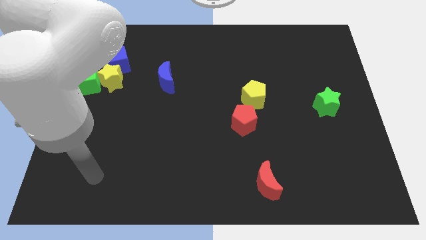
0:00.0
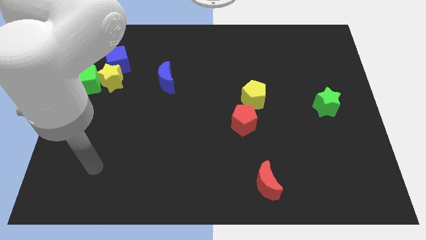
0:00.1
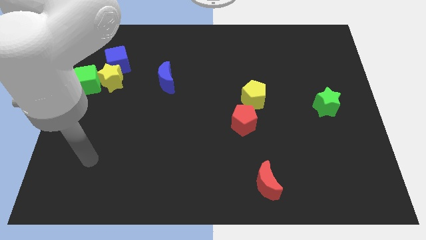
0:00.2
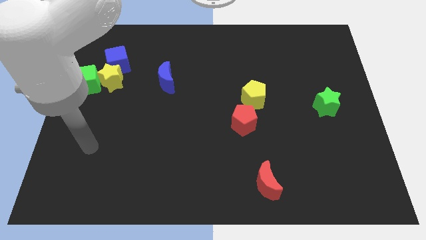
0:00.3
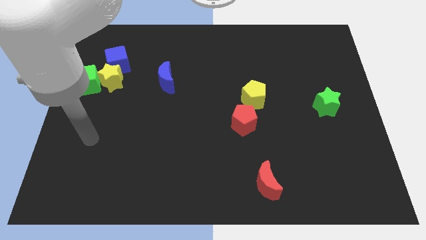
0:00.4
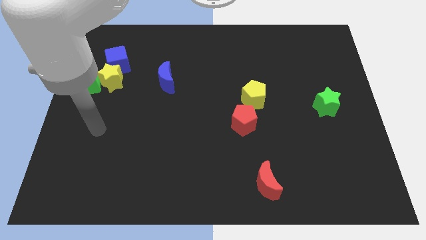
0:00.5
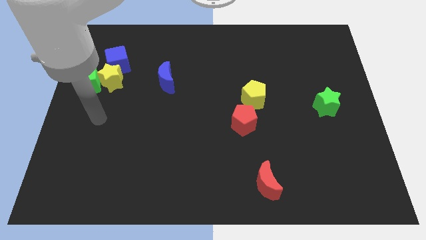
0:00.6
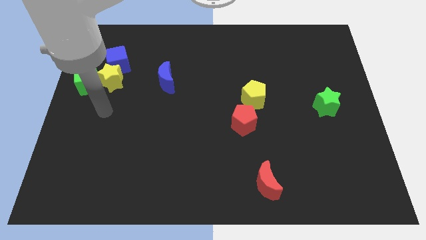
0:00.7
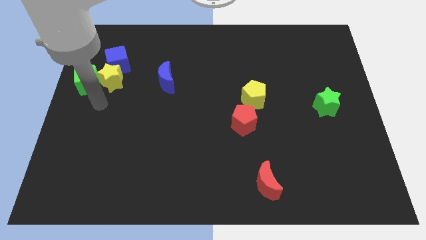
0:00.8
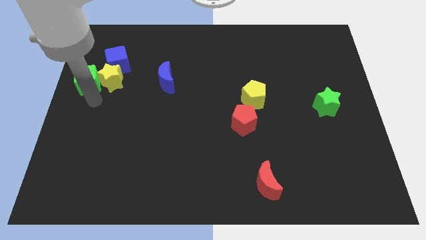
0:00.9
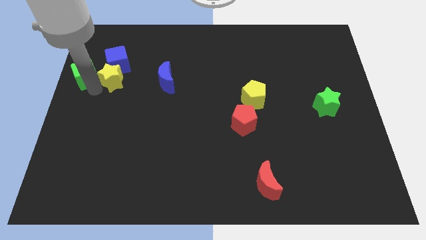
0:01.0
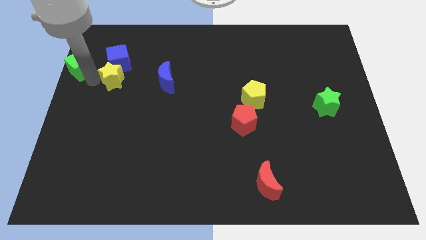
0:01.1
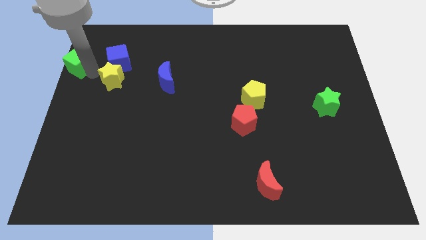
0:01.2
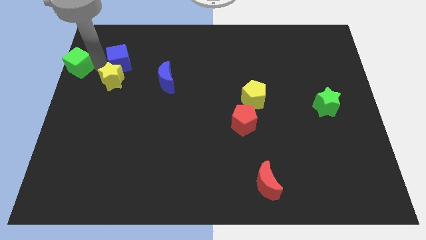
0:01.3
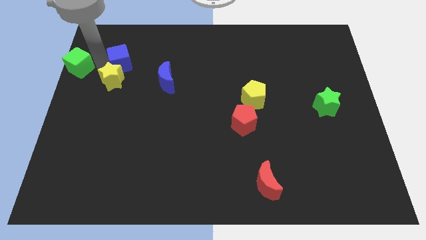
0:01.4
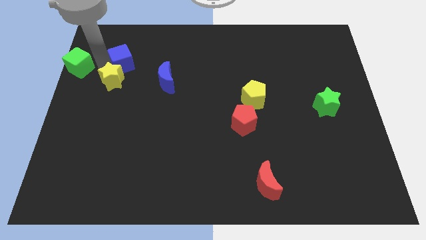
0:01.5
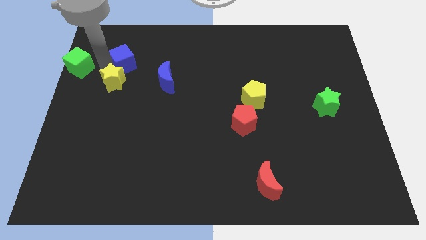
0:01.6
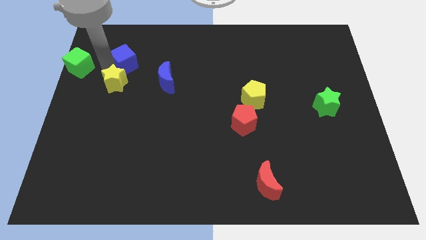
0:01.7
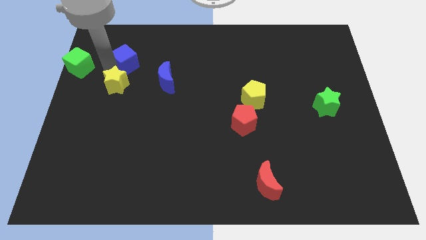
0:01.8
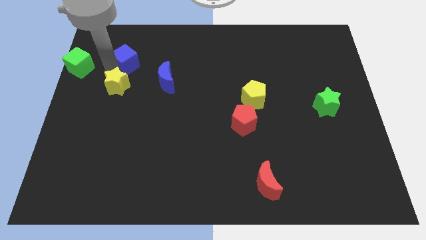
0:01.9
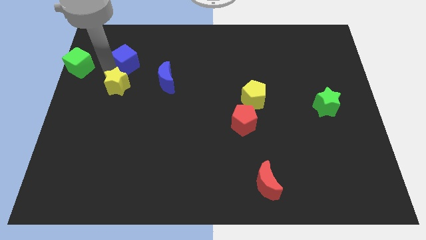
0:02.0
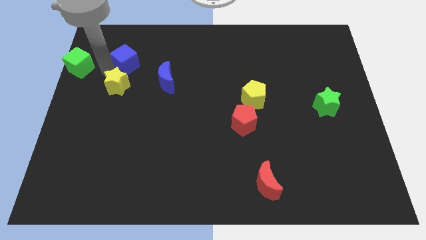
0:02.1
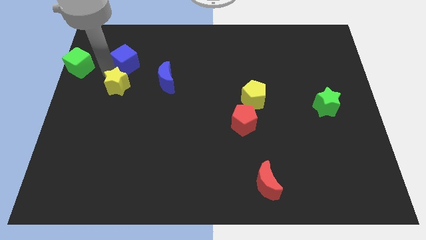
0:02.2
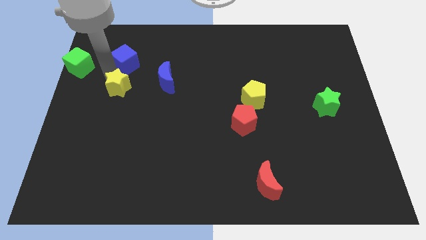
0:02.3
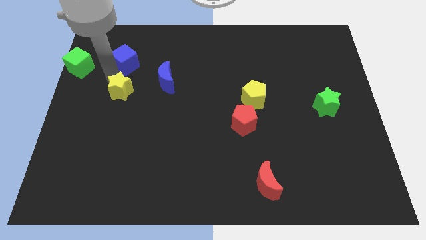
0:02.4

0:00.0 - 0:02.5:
pull the yellow star apart from the green cube and blue cube

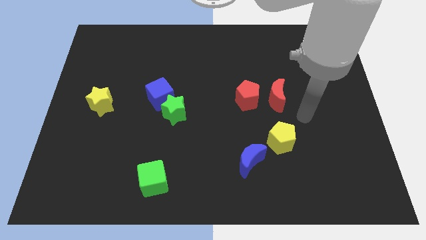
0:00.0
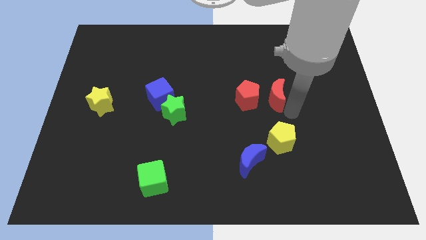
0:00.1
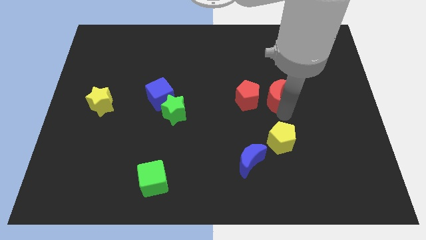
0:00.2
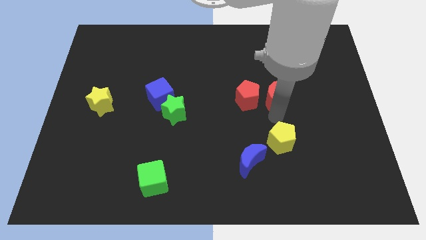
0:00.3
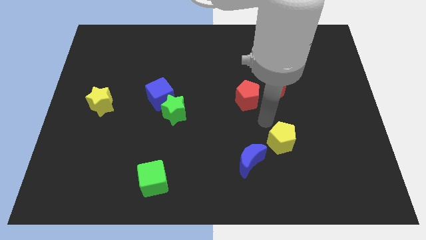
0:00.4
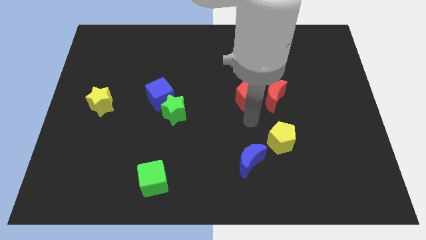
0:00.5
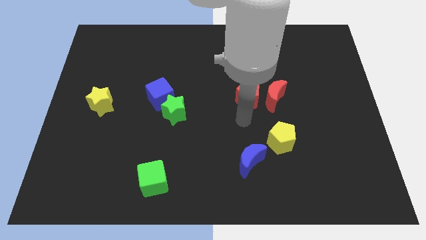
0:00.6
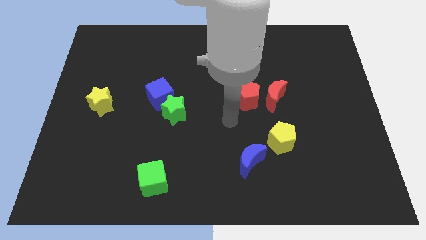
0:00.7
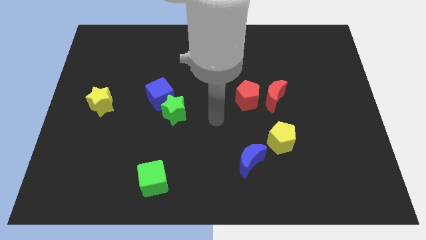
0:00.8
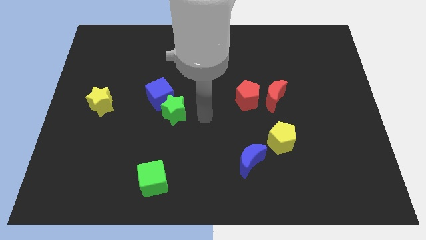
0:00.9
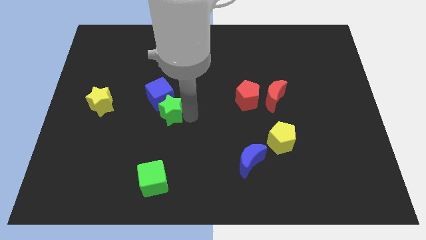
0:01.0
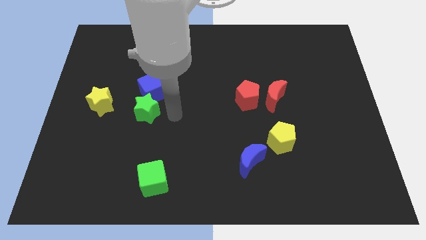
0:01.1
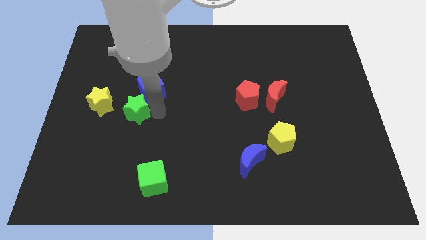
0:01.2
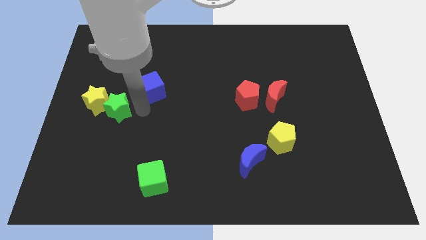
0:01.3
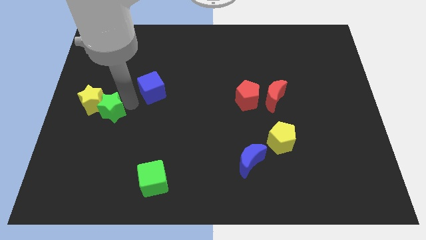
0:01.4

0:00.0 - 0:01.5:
pull the blue cube apart from the green star

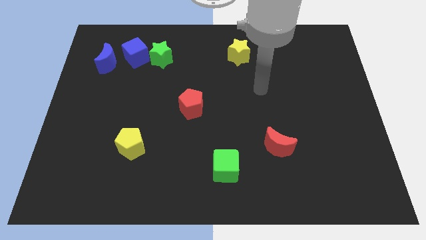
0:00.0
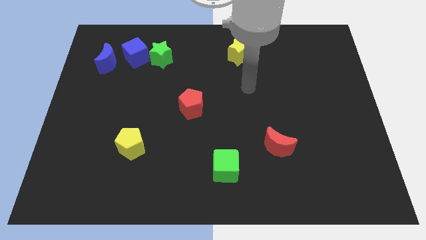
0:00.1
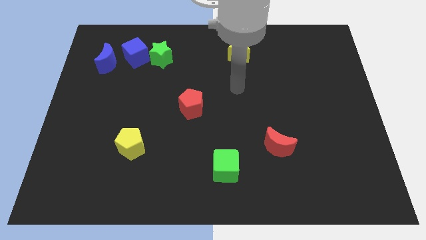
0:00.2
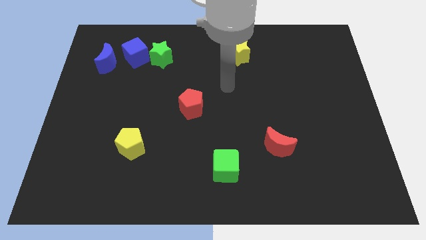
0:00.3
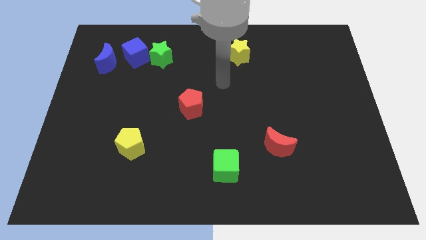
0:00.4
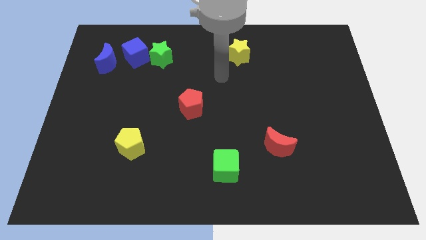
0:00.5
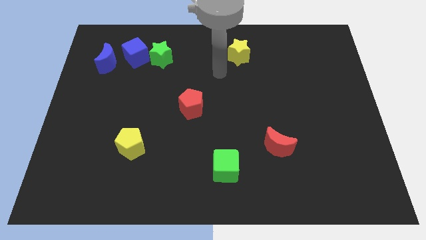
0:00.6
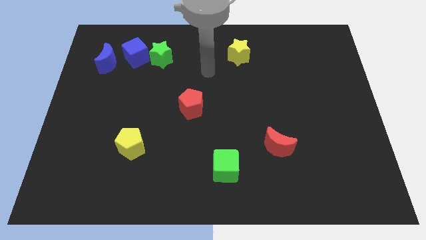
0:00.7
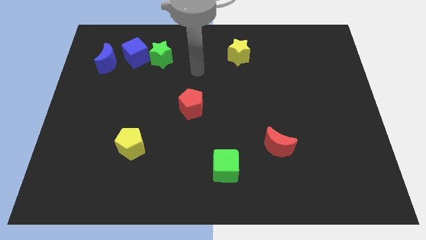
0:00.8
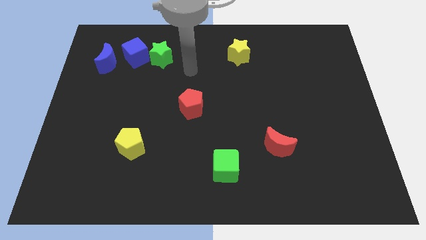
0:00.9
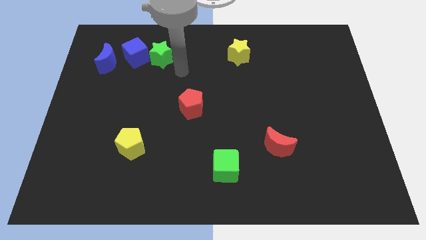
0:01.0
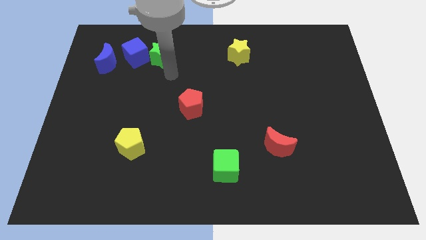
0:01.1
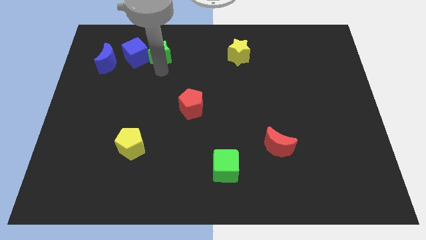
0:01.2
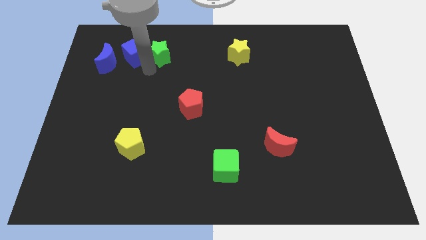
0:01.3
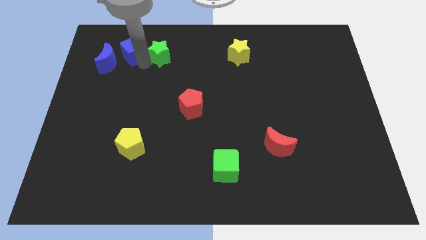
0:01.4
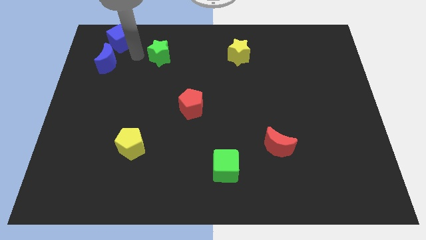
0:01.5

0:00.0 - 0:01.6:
pull the green star apart from the blue cube

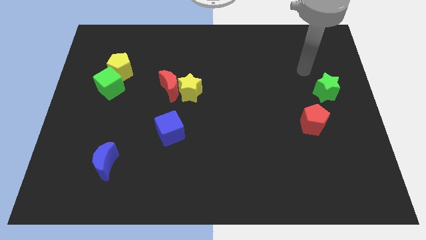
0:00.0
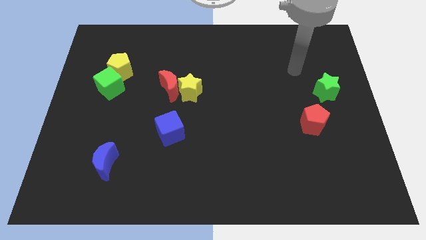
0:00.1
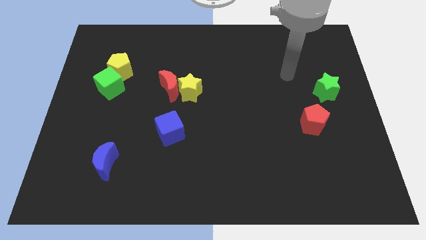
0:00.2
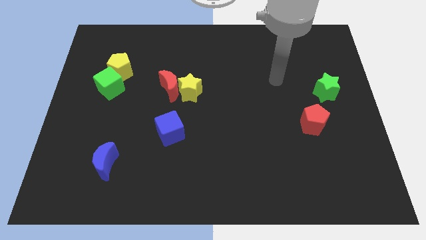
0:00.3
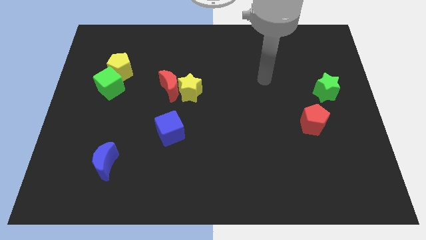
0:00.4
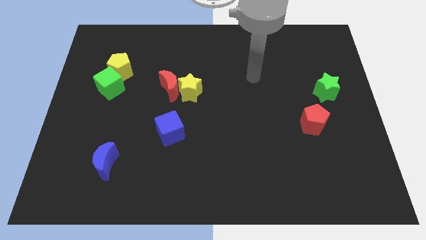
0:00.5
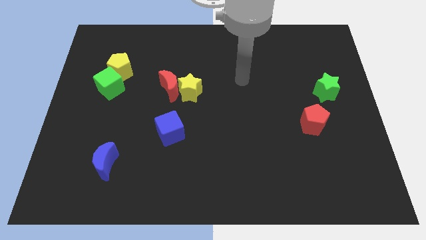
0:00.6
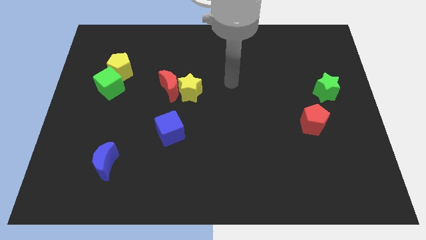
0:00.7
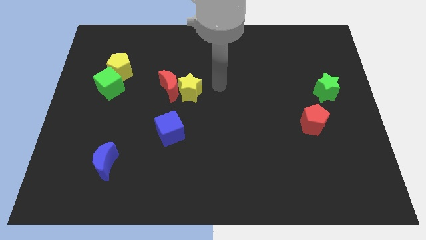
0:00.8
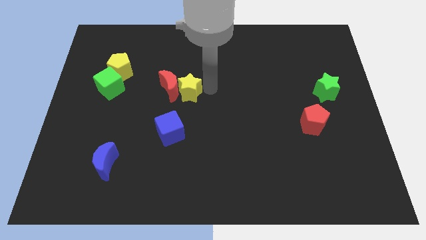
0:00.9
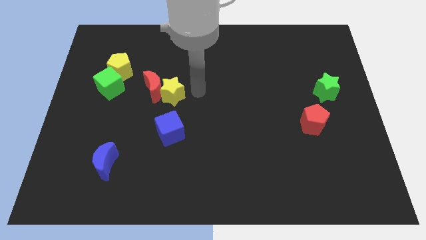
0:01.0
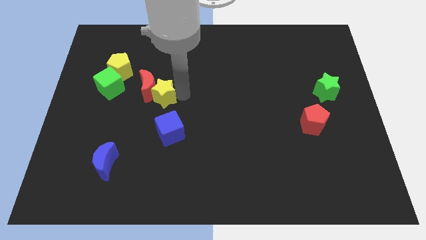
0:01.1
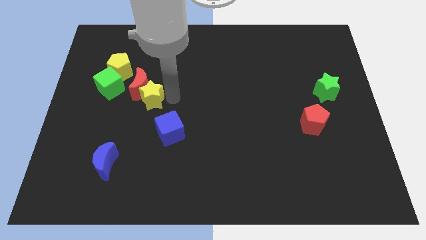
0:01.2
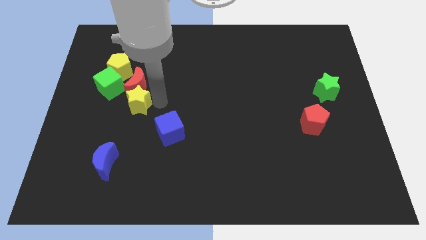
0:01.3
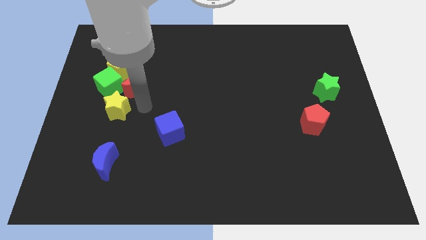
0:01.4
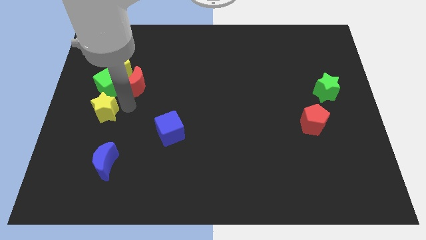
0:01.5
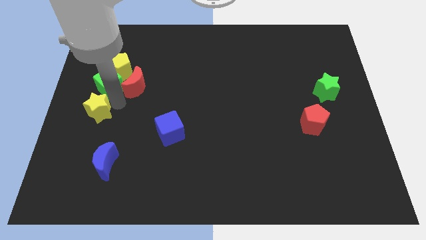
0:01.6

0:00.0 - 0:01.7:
move the red moon away from the yellow star

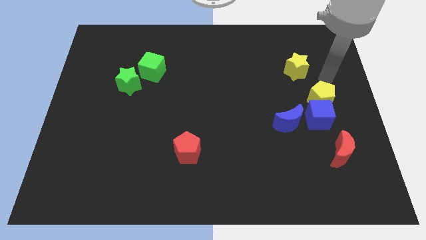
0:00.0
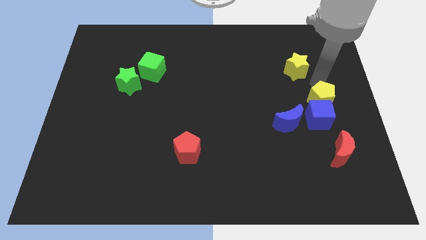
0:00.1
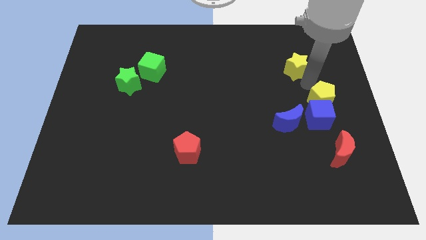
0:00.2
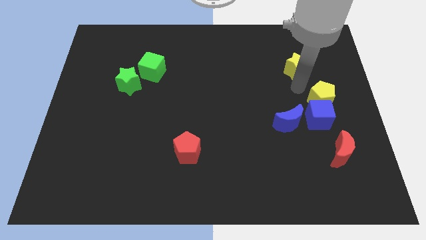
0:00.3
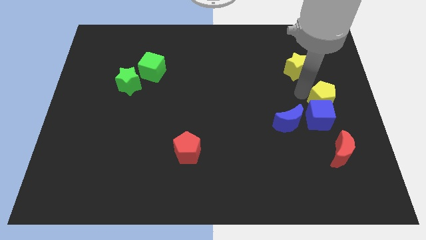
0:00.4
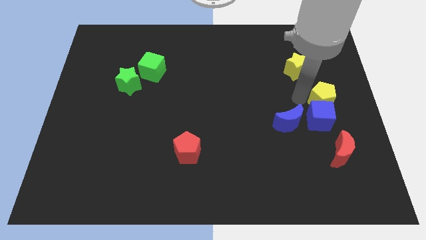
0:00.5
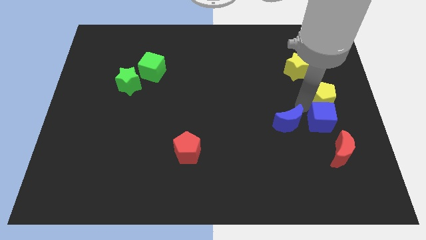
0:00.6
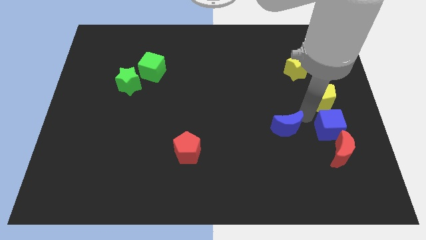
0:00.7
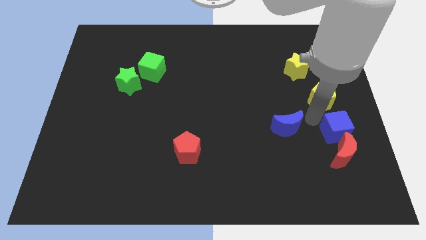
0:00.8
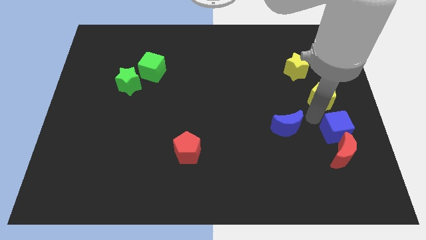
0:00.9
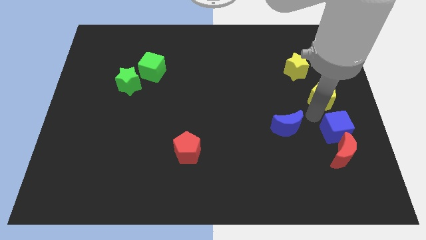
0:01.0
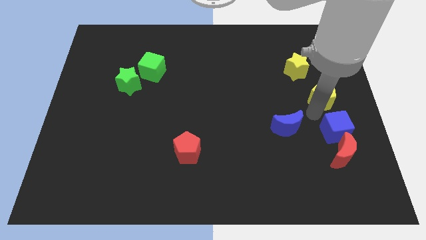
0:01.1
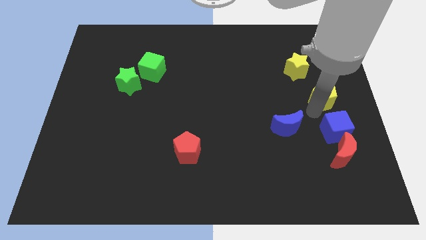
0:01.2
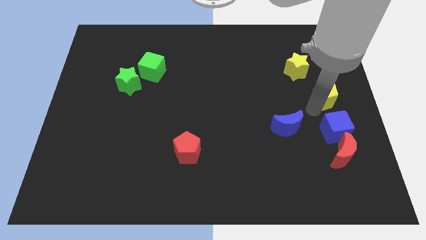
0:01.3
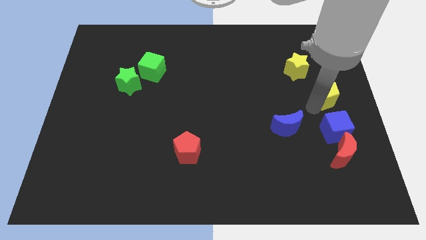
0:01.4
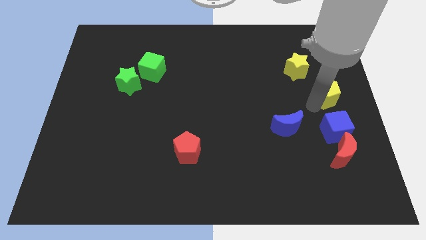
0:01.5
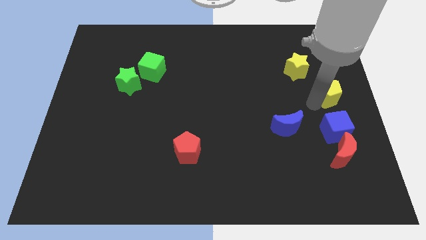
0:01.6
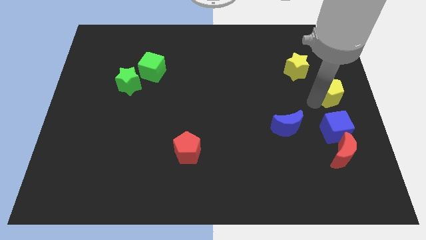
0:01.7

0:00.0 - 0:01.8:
separate the yellow pentagon from the blue cube

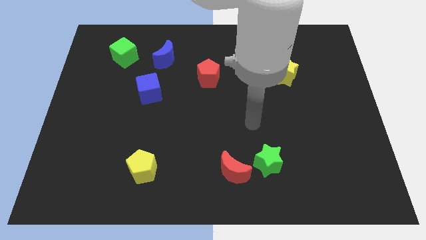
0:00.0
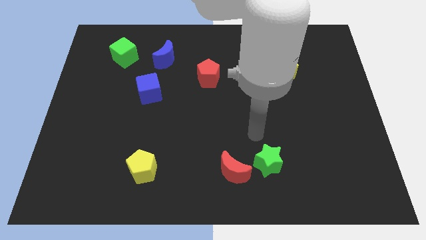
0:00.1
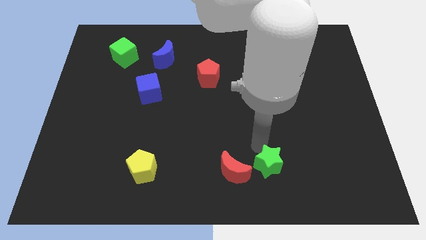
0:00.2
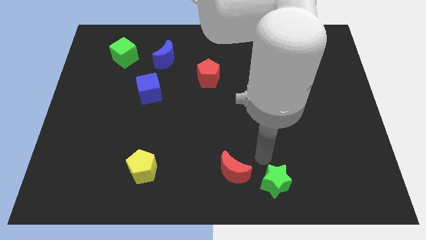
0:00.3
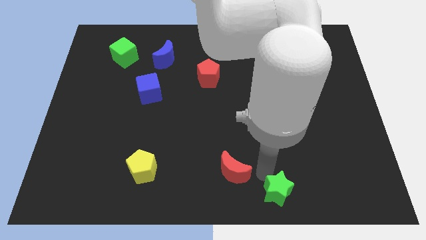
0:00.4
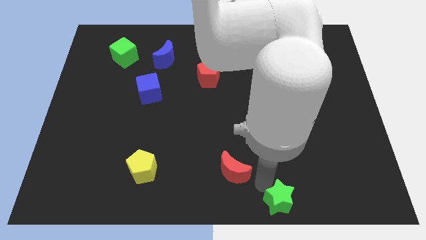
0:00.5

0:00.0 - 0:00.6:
pull the red moon apart from the green star
